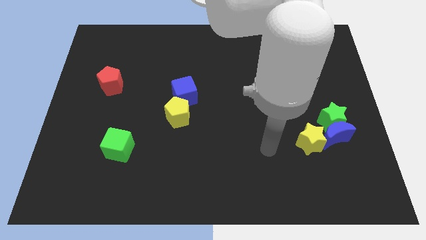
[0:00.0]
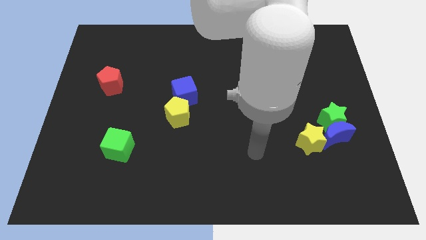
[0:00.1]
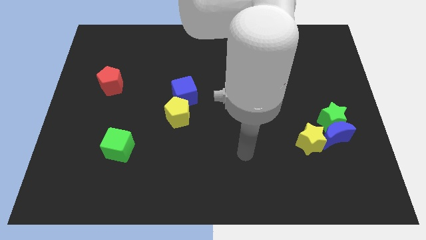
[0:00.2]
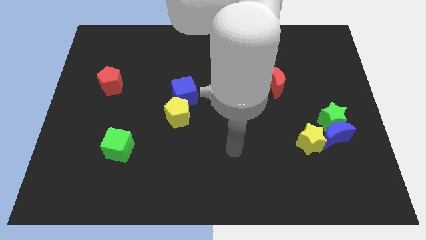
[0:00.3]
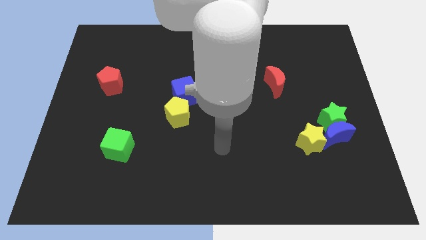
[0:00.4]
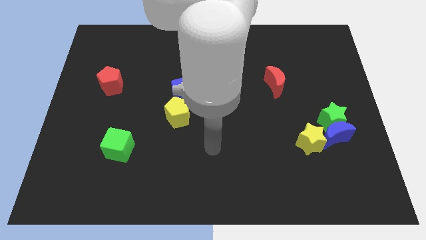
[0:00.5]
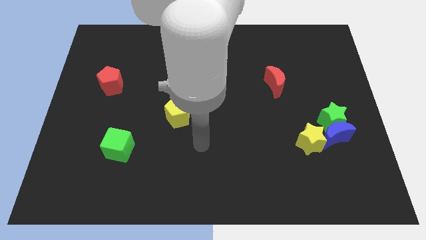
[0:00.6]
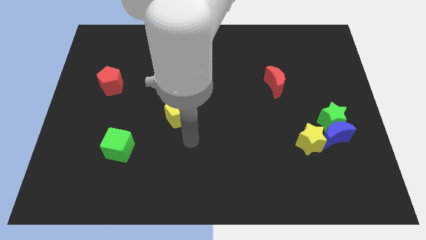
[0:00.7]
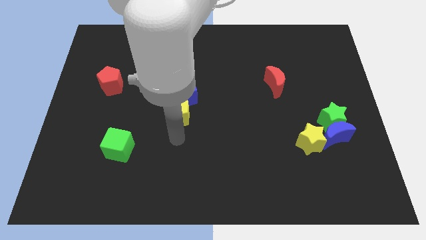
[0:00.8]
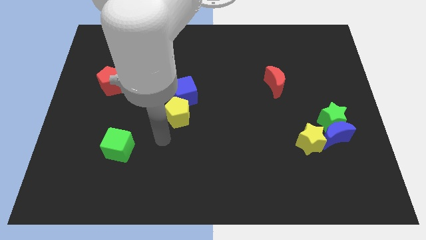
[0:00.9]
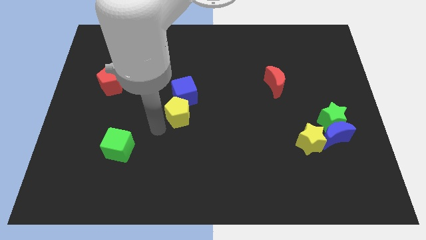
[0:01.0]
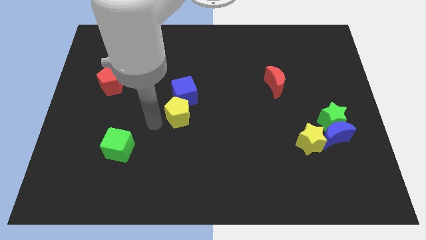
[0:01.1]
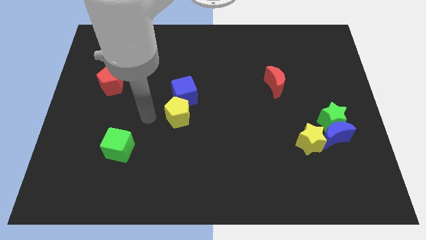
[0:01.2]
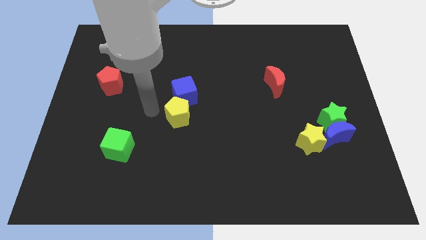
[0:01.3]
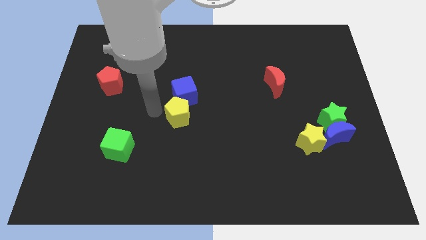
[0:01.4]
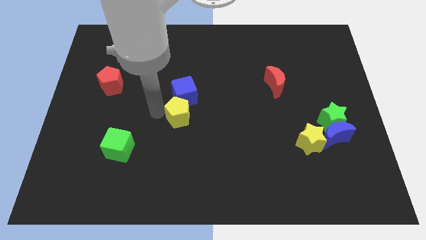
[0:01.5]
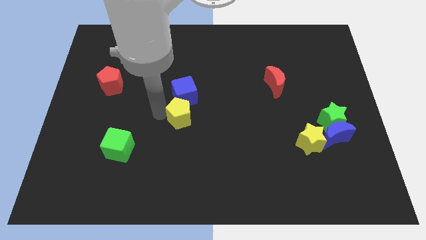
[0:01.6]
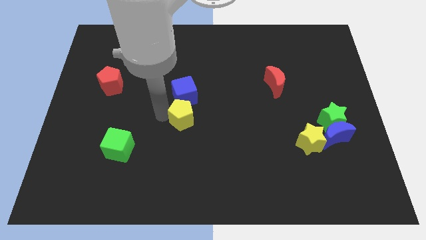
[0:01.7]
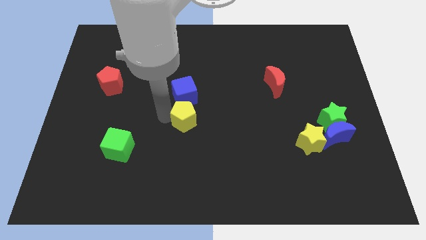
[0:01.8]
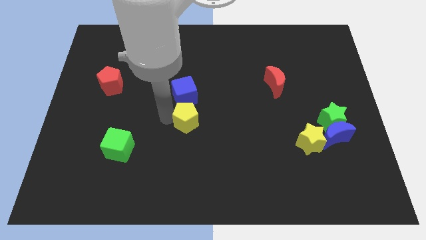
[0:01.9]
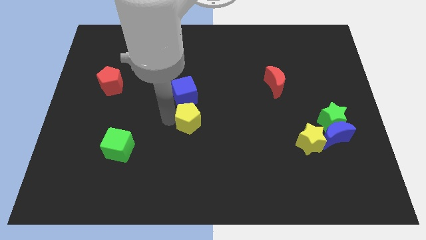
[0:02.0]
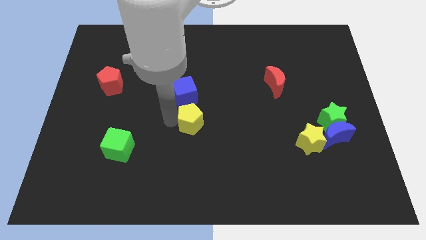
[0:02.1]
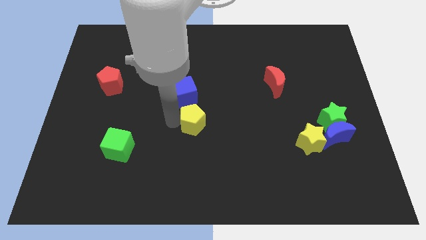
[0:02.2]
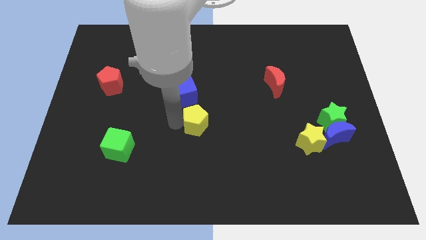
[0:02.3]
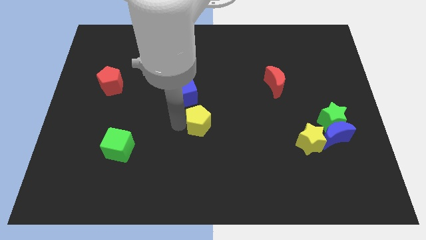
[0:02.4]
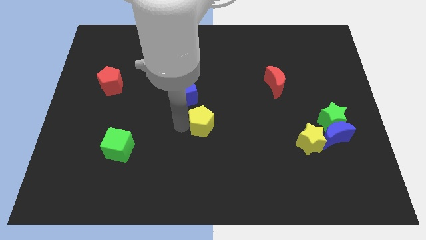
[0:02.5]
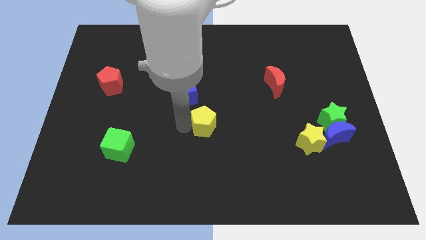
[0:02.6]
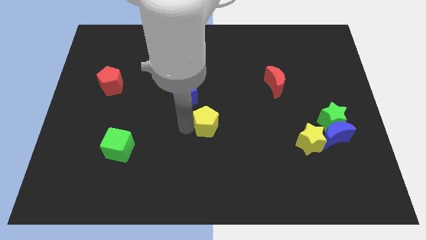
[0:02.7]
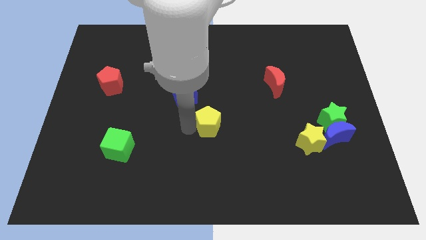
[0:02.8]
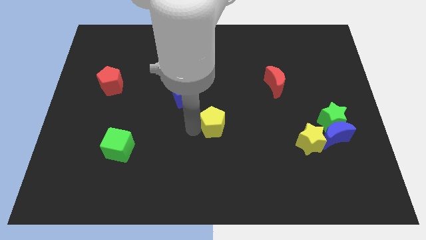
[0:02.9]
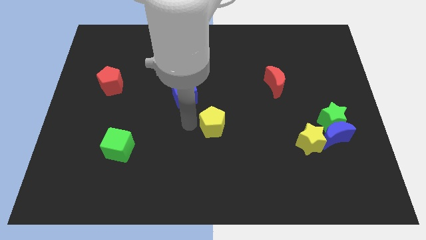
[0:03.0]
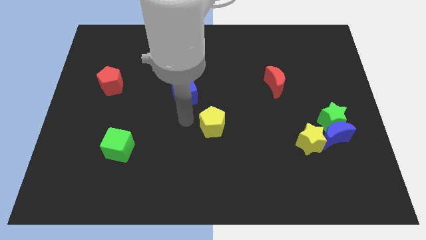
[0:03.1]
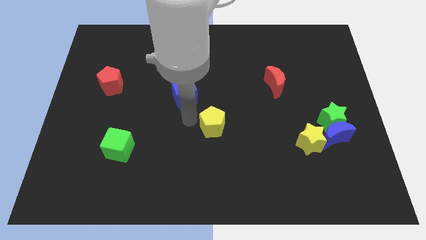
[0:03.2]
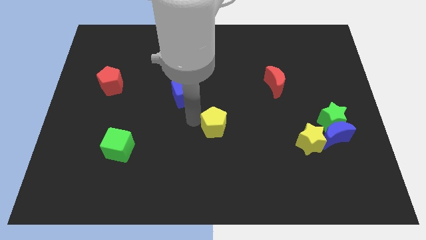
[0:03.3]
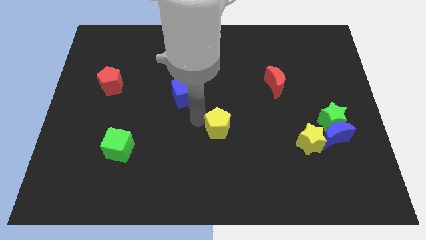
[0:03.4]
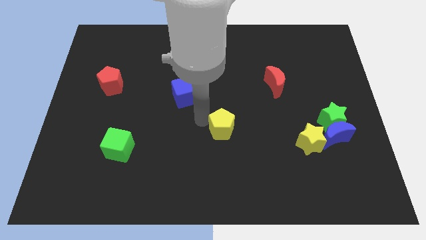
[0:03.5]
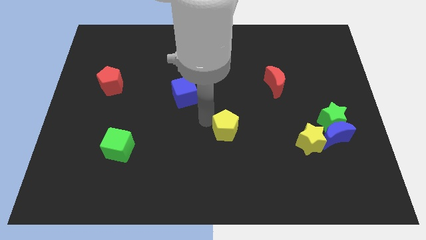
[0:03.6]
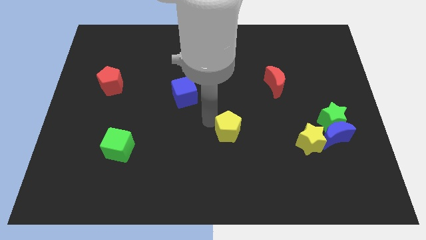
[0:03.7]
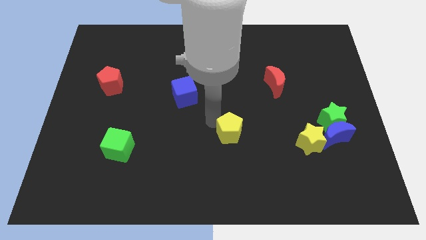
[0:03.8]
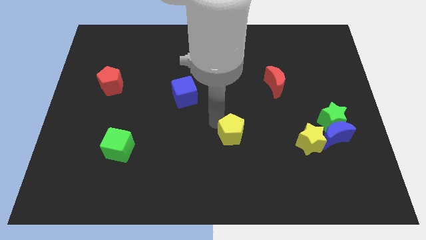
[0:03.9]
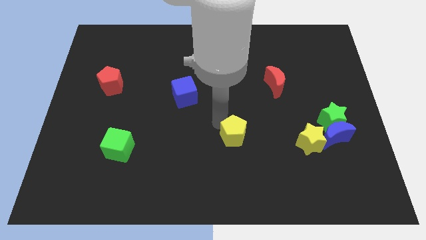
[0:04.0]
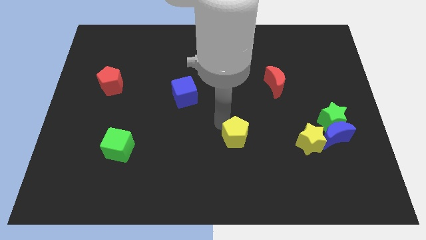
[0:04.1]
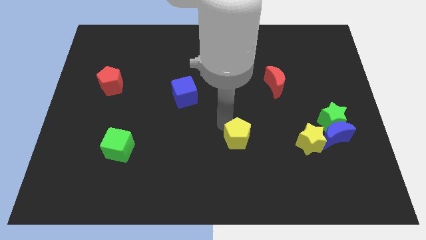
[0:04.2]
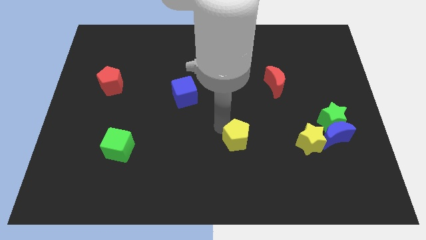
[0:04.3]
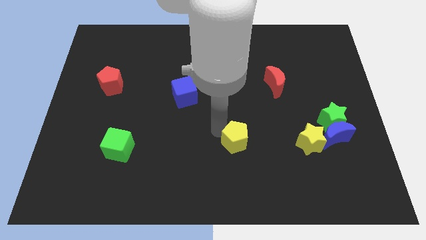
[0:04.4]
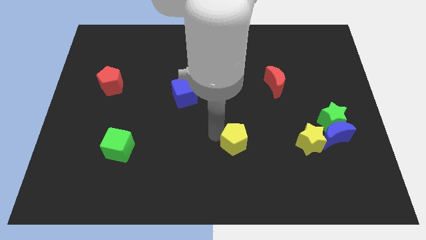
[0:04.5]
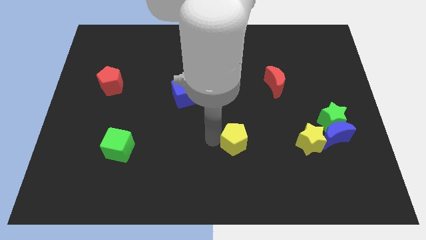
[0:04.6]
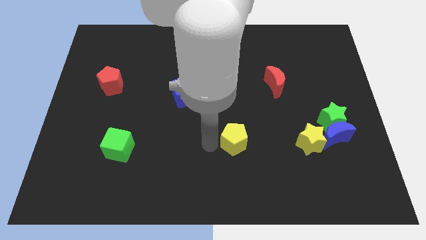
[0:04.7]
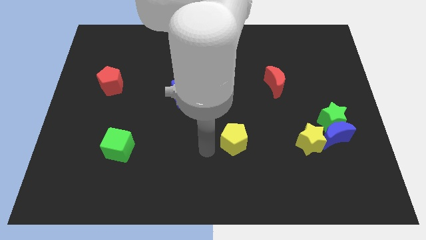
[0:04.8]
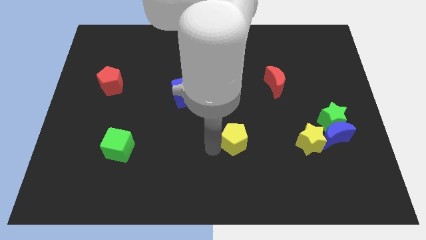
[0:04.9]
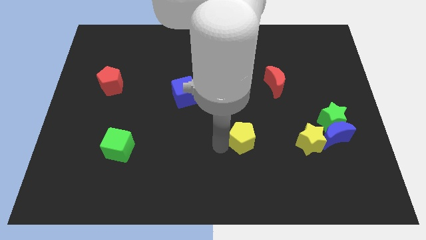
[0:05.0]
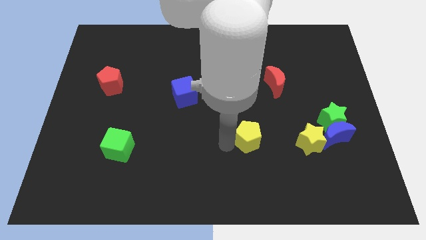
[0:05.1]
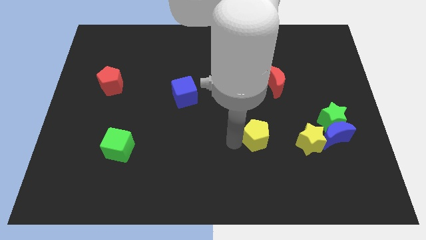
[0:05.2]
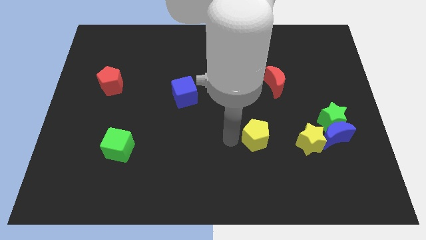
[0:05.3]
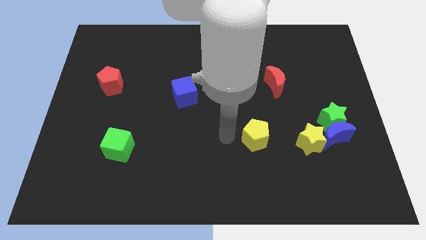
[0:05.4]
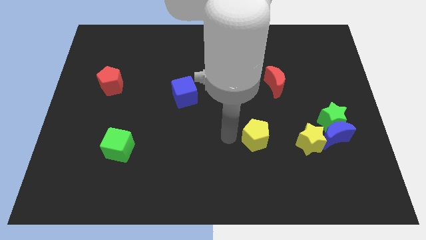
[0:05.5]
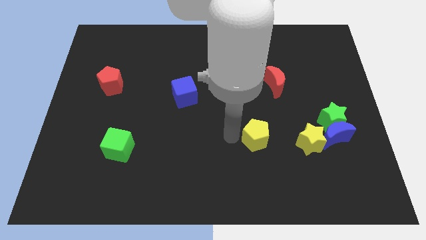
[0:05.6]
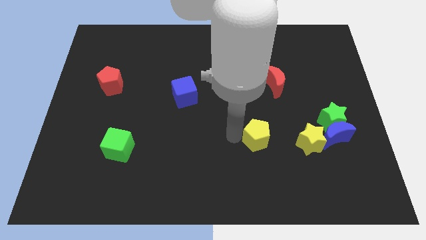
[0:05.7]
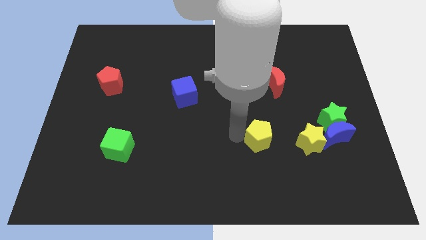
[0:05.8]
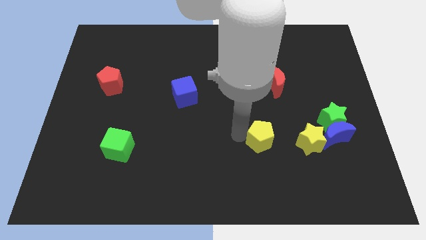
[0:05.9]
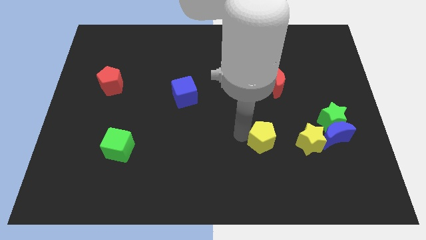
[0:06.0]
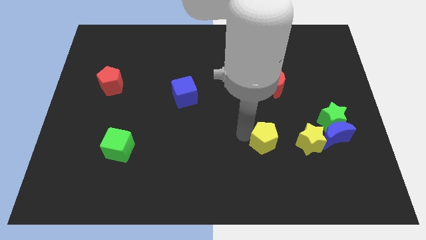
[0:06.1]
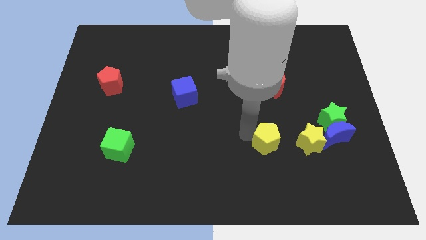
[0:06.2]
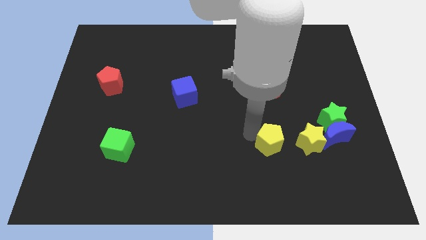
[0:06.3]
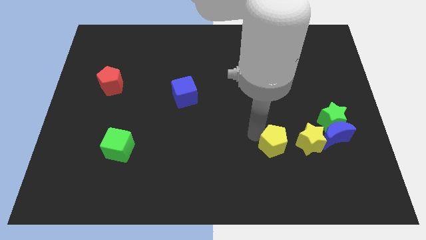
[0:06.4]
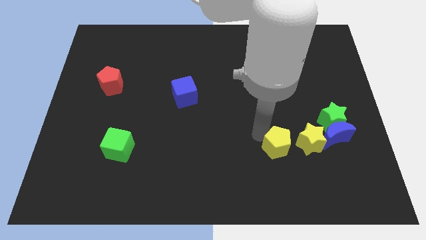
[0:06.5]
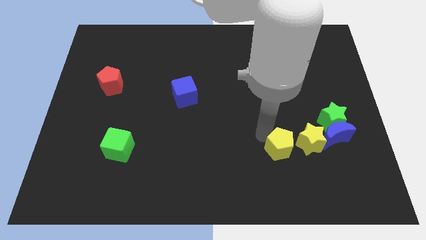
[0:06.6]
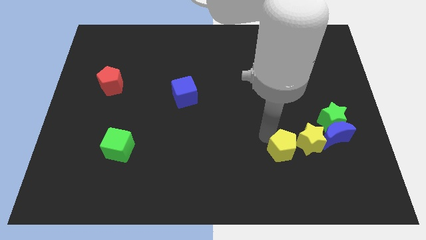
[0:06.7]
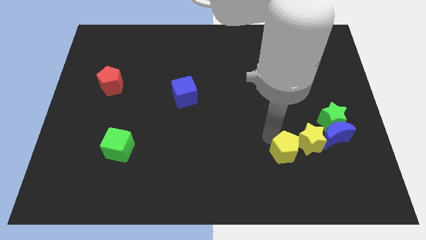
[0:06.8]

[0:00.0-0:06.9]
slide the yellow pentagon close to the yellow star
